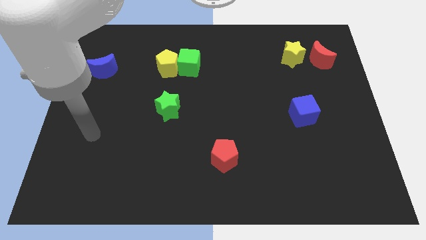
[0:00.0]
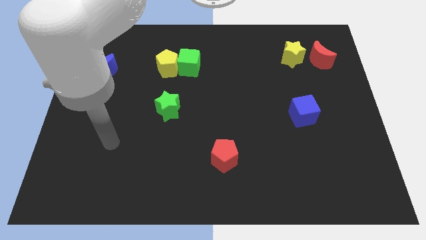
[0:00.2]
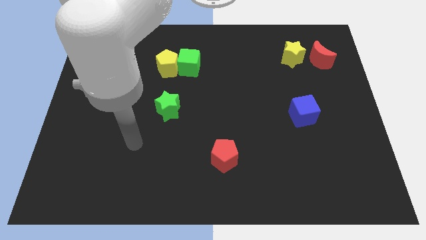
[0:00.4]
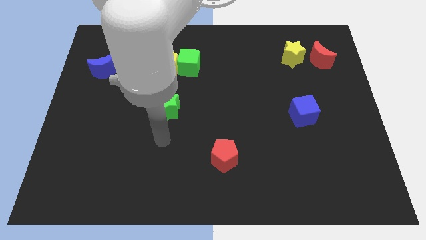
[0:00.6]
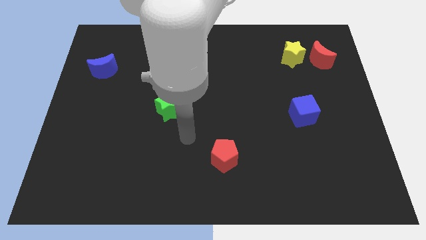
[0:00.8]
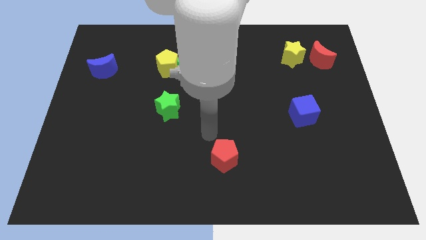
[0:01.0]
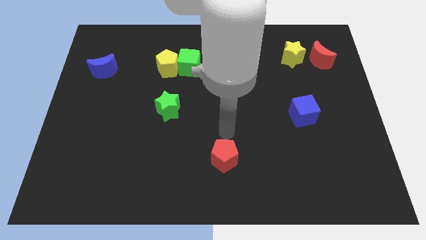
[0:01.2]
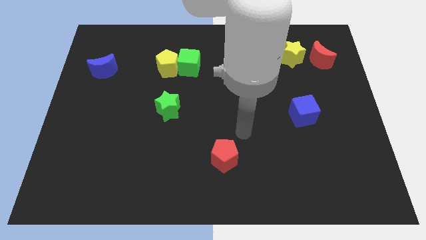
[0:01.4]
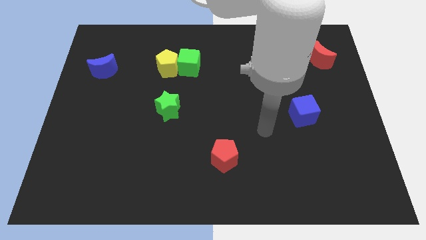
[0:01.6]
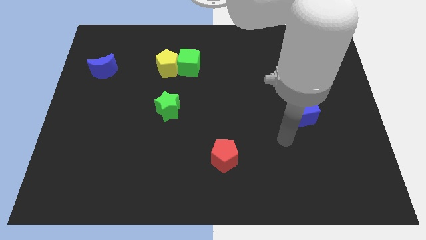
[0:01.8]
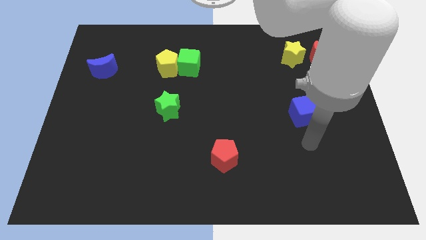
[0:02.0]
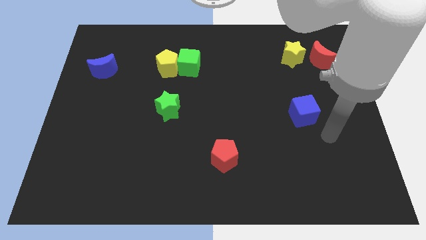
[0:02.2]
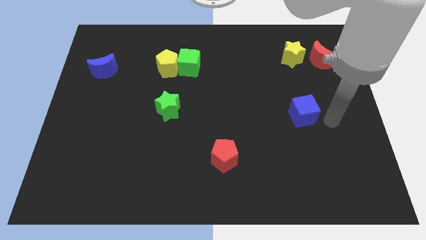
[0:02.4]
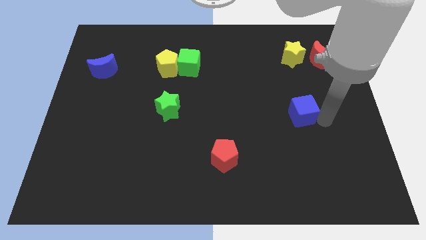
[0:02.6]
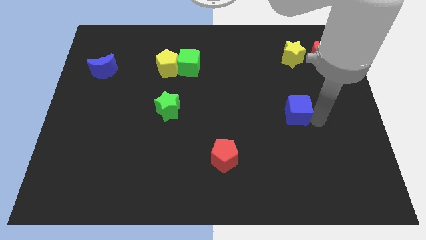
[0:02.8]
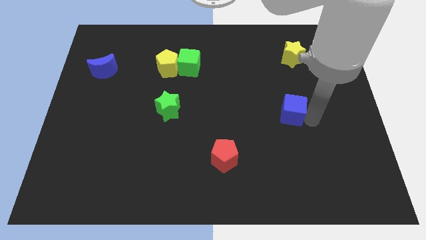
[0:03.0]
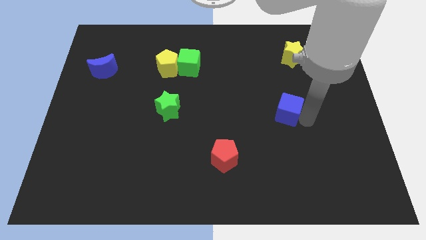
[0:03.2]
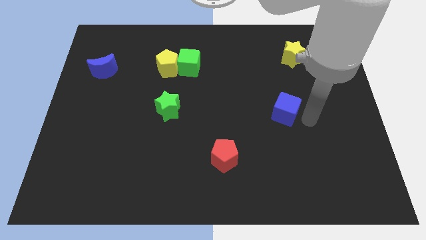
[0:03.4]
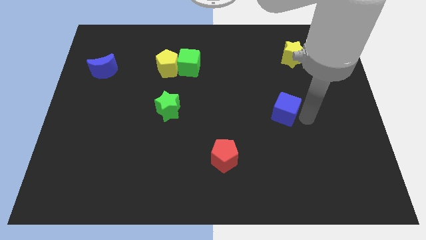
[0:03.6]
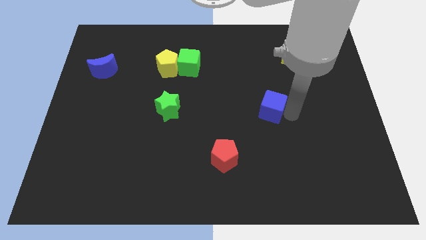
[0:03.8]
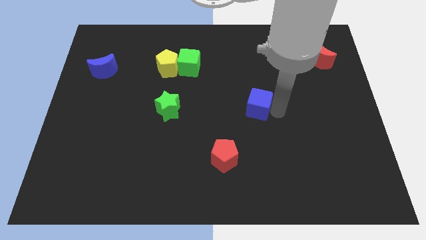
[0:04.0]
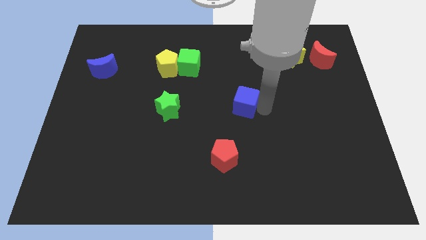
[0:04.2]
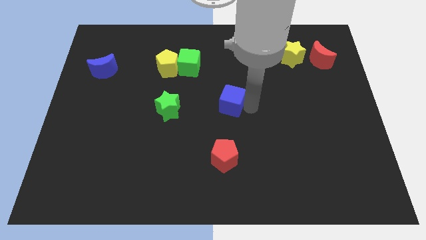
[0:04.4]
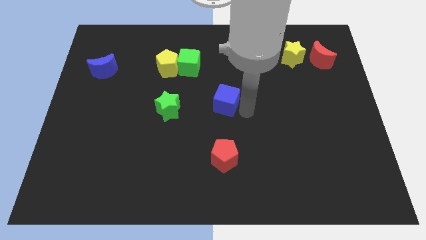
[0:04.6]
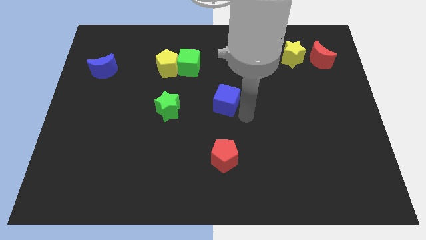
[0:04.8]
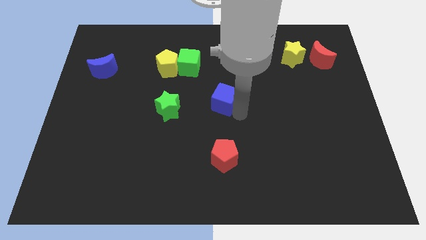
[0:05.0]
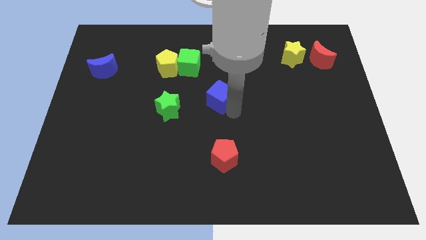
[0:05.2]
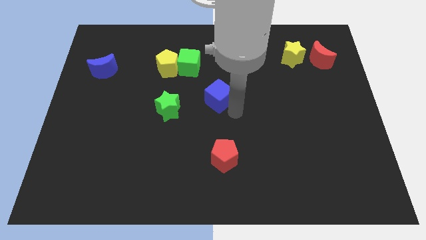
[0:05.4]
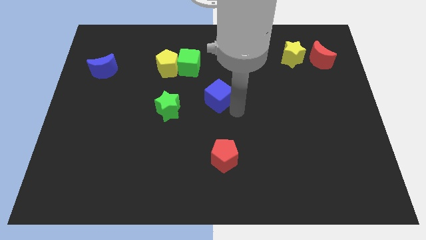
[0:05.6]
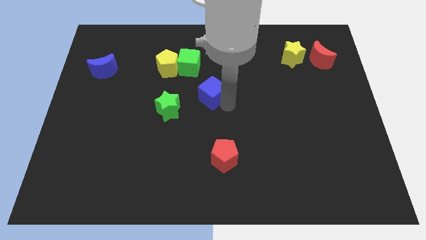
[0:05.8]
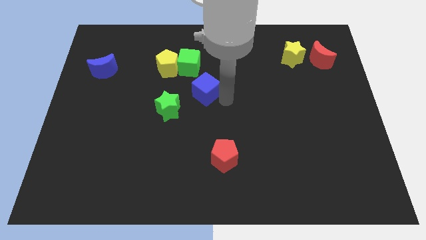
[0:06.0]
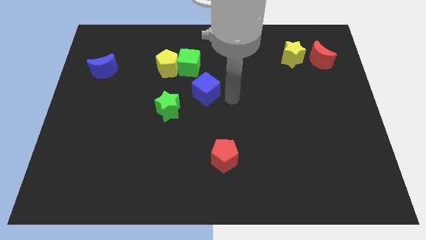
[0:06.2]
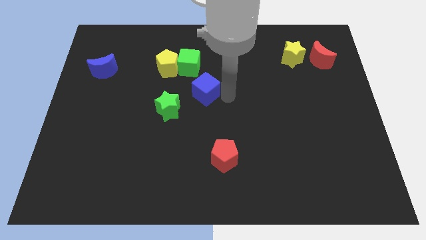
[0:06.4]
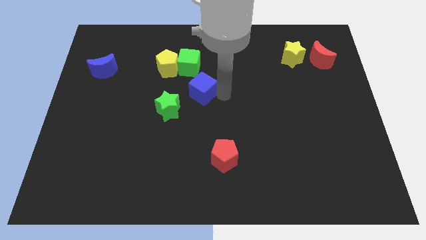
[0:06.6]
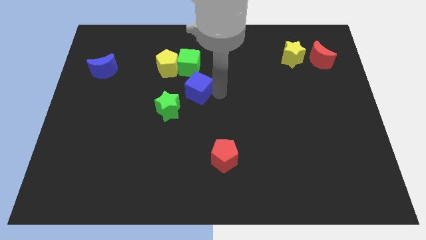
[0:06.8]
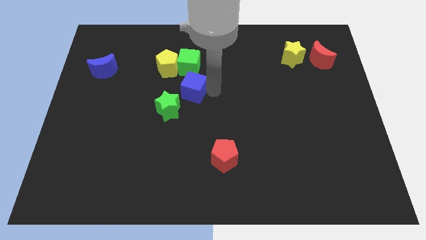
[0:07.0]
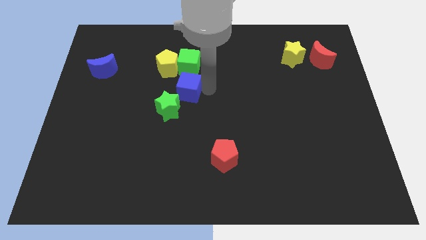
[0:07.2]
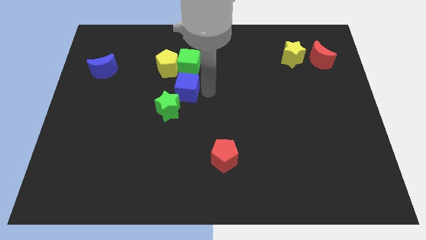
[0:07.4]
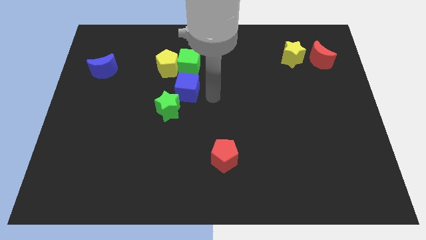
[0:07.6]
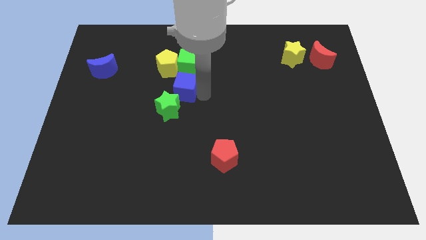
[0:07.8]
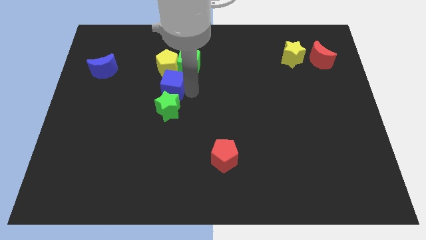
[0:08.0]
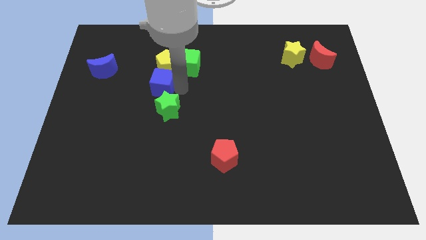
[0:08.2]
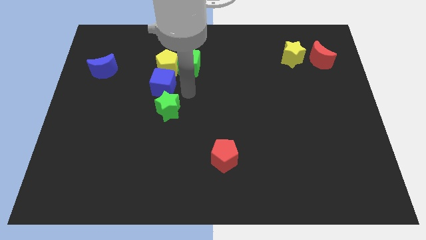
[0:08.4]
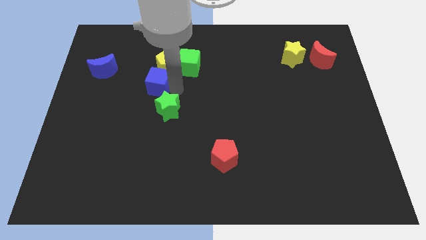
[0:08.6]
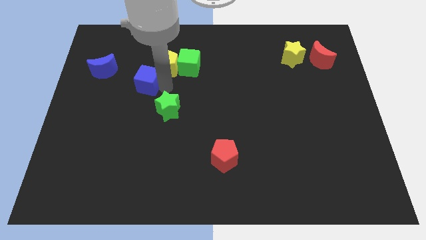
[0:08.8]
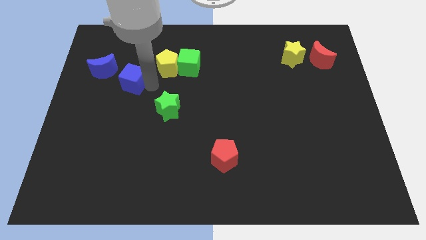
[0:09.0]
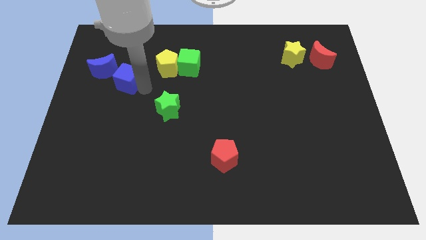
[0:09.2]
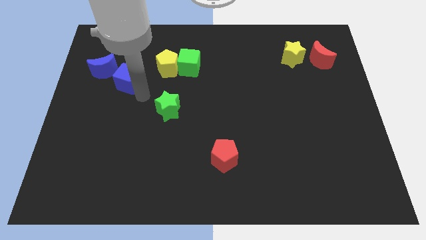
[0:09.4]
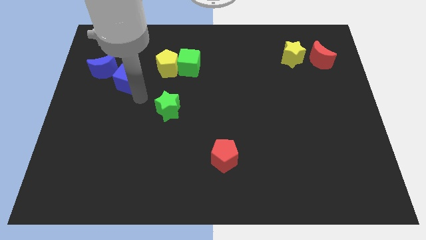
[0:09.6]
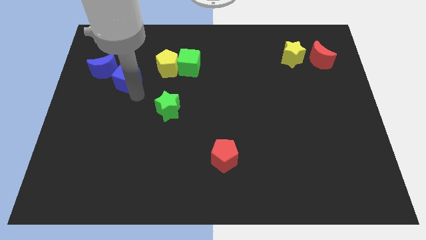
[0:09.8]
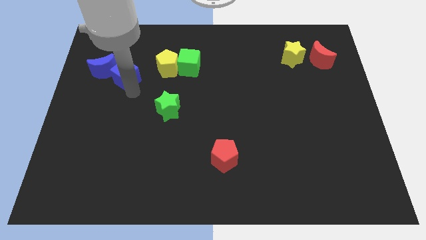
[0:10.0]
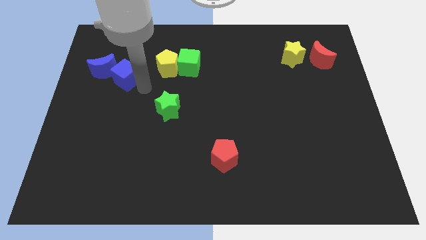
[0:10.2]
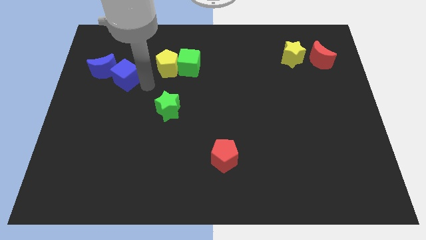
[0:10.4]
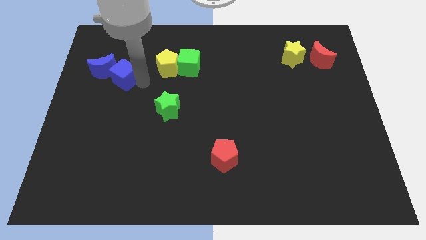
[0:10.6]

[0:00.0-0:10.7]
put the blue cube next to the blue moon
